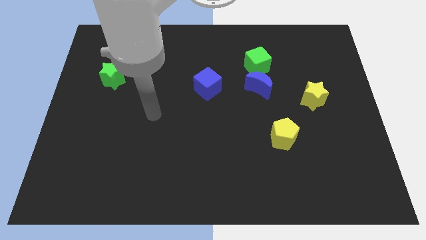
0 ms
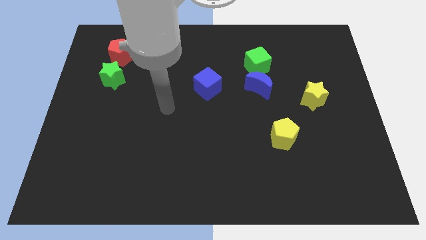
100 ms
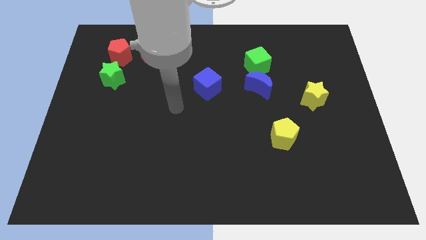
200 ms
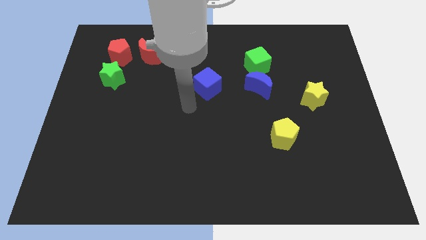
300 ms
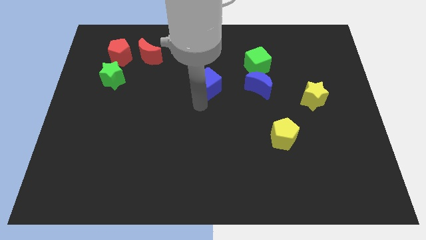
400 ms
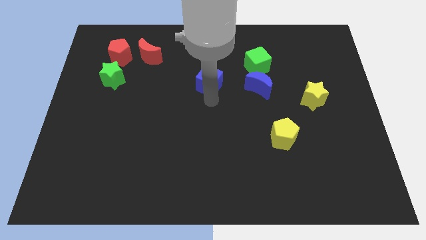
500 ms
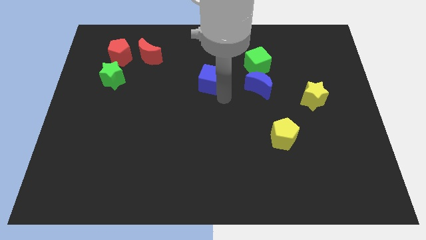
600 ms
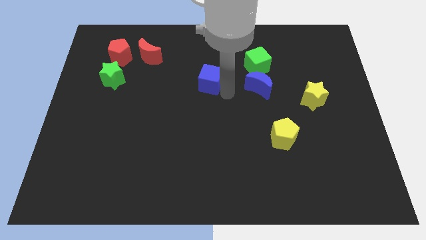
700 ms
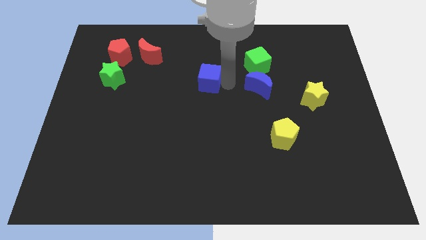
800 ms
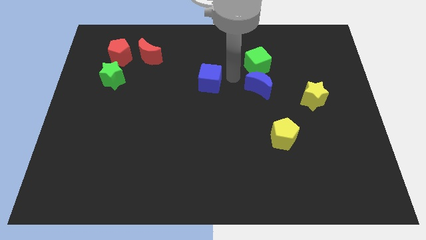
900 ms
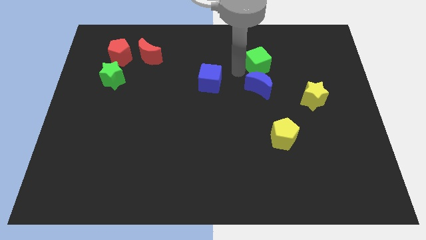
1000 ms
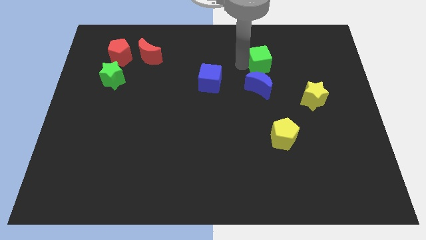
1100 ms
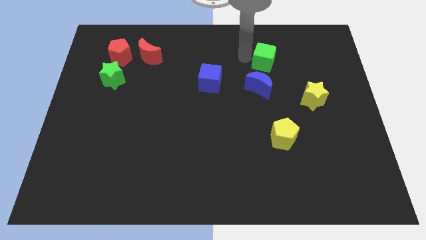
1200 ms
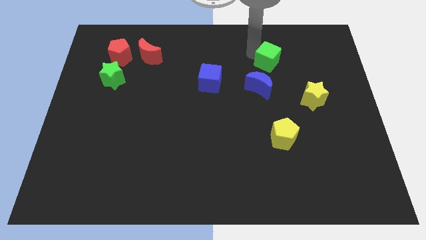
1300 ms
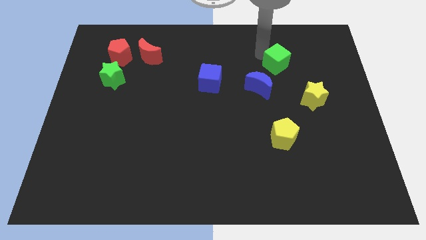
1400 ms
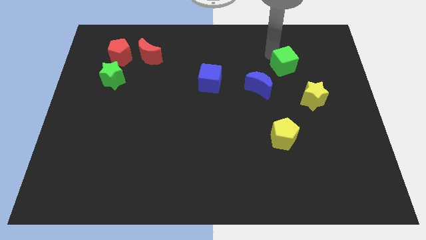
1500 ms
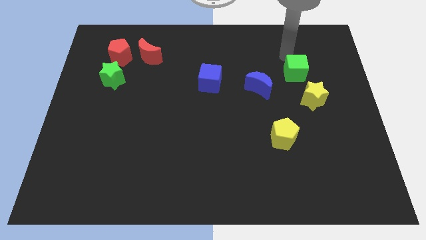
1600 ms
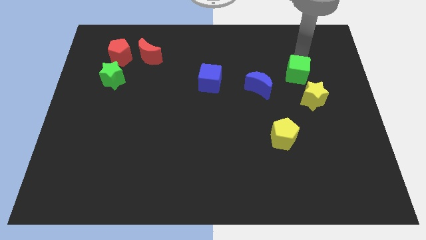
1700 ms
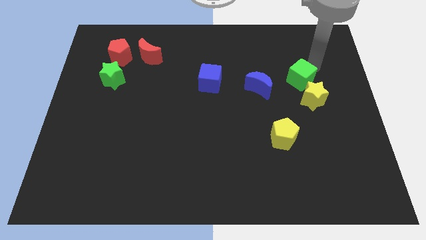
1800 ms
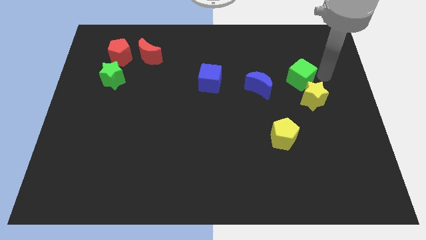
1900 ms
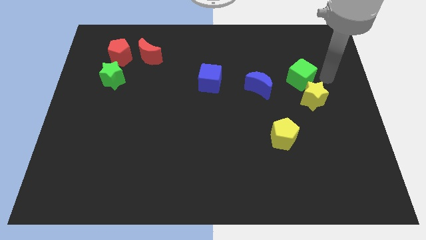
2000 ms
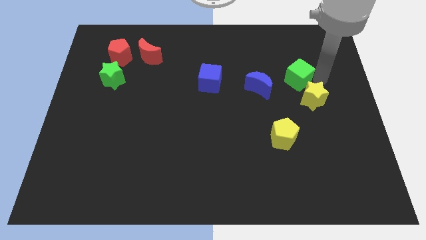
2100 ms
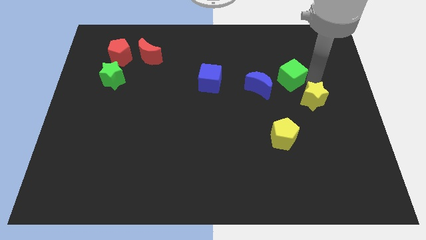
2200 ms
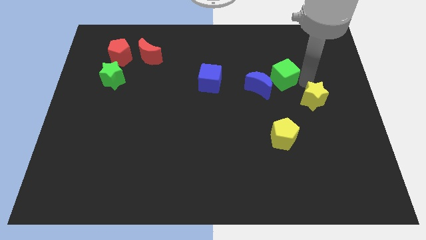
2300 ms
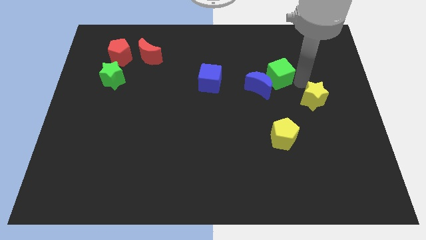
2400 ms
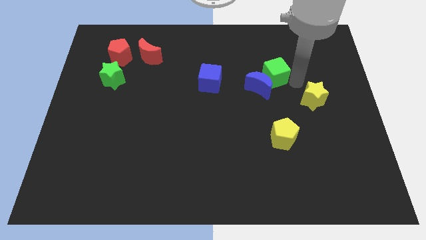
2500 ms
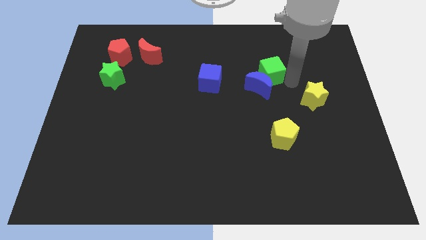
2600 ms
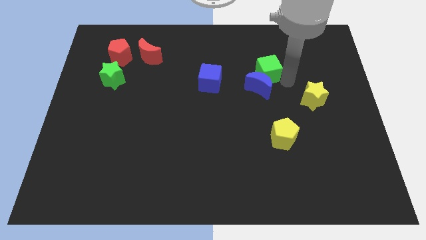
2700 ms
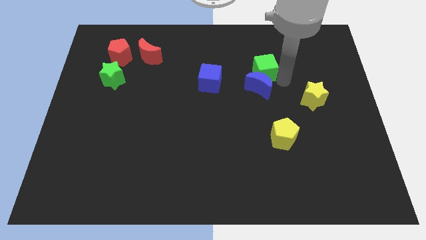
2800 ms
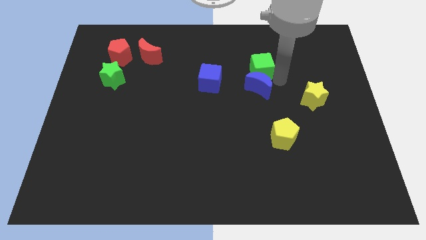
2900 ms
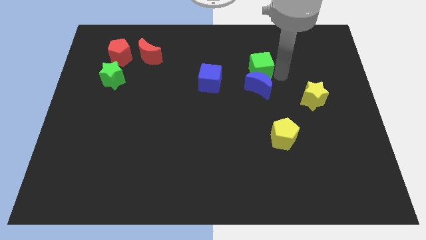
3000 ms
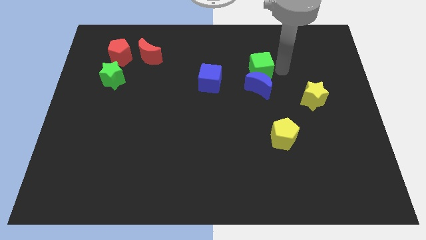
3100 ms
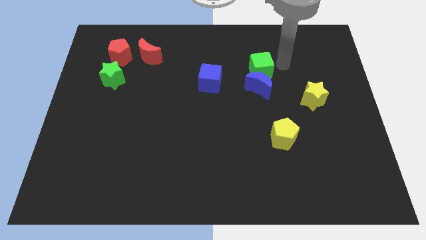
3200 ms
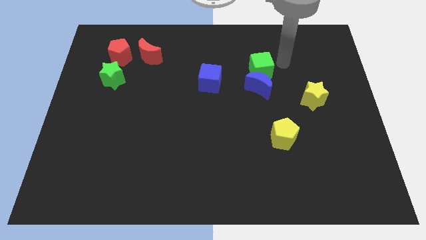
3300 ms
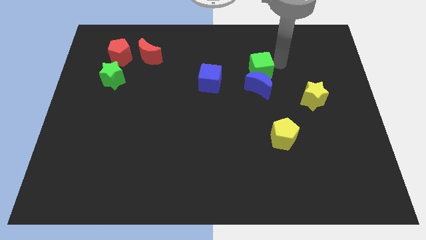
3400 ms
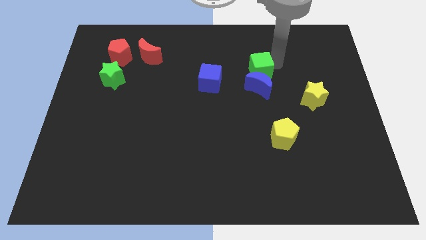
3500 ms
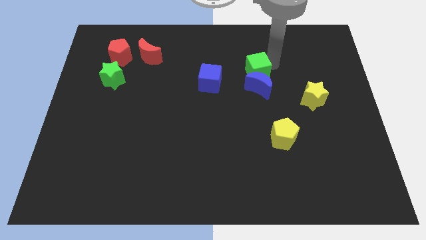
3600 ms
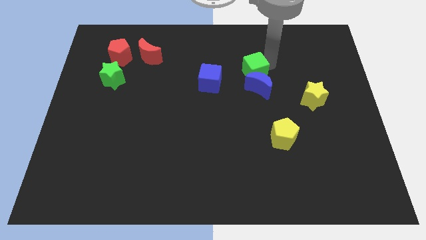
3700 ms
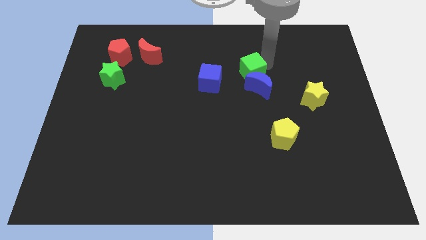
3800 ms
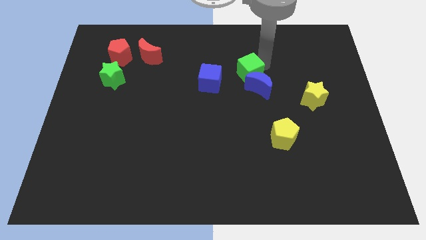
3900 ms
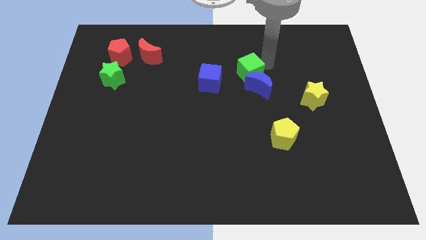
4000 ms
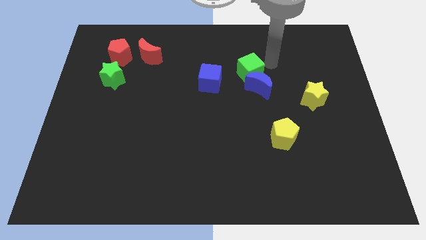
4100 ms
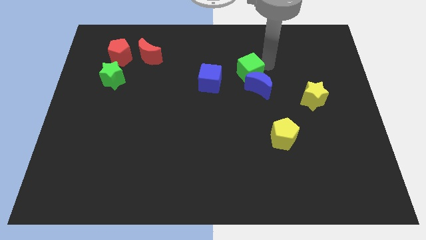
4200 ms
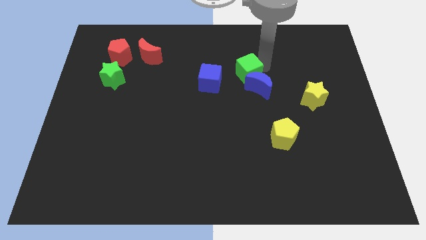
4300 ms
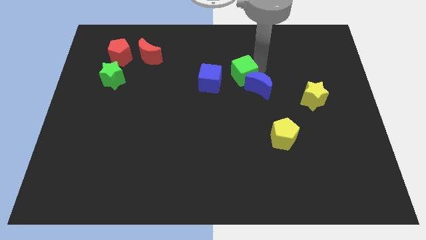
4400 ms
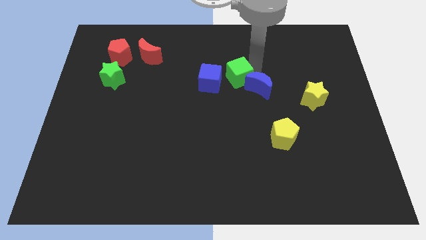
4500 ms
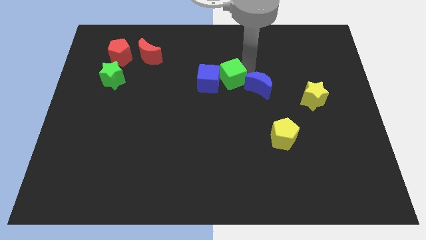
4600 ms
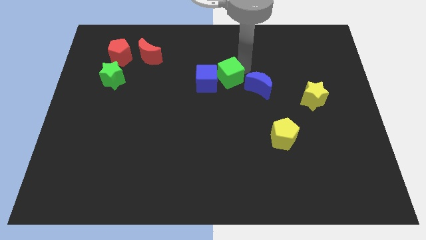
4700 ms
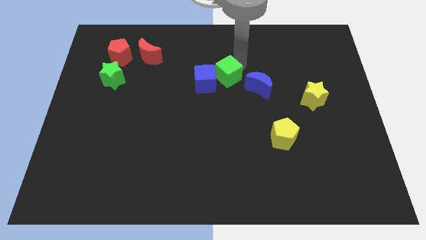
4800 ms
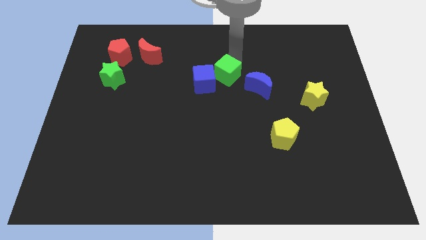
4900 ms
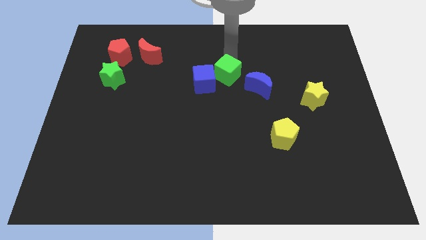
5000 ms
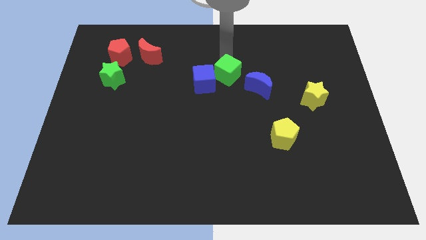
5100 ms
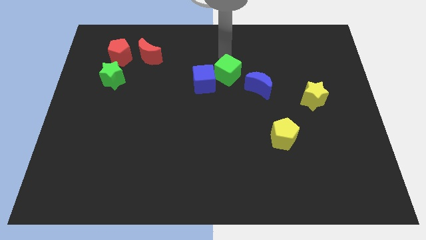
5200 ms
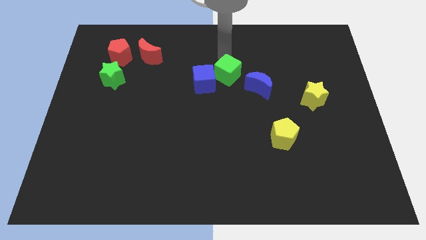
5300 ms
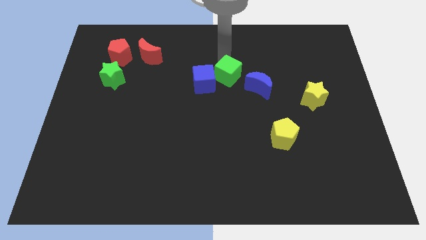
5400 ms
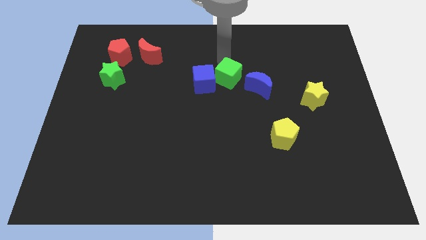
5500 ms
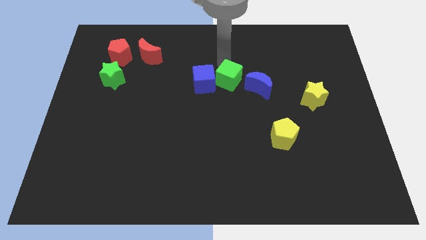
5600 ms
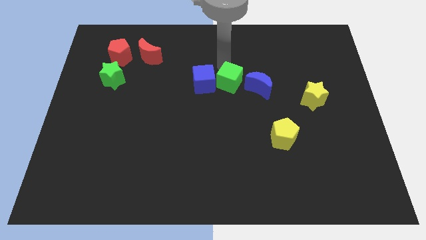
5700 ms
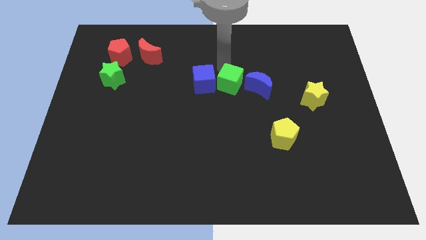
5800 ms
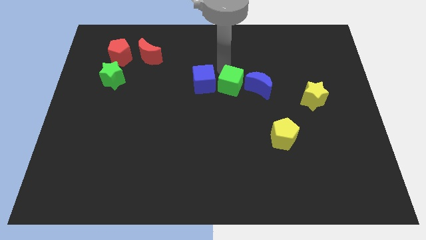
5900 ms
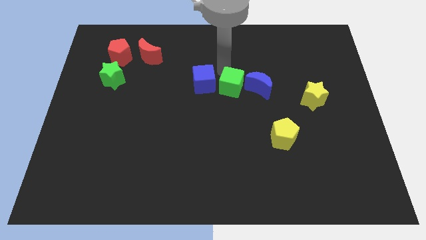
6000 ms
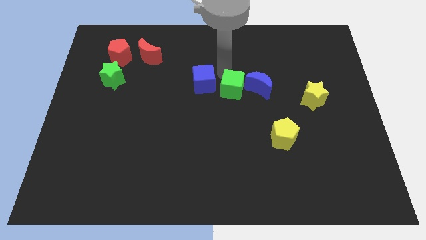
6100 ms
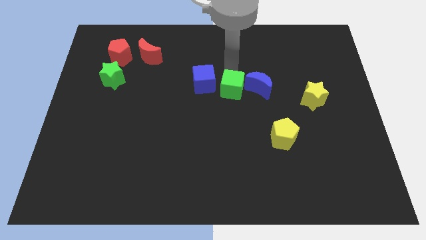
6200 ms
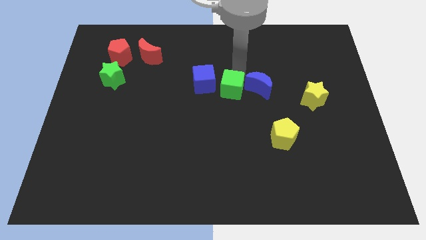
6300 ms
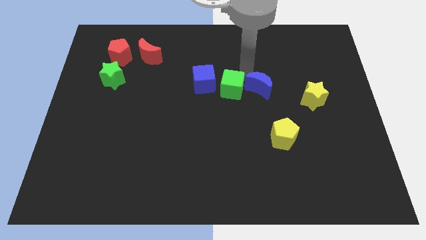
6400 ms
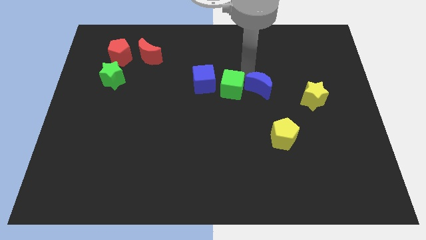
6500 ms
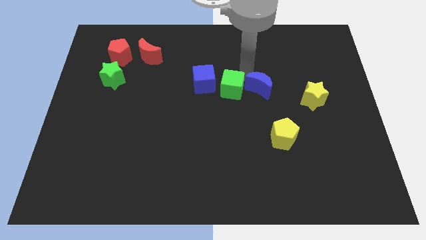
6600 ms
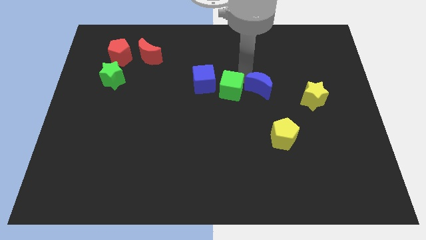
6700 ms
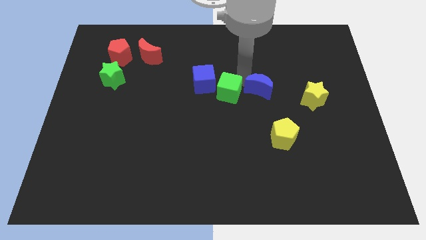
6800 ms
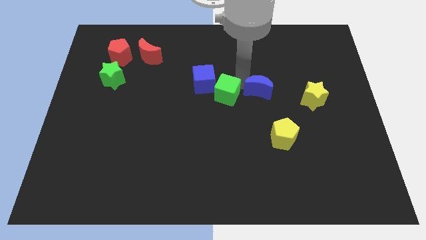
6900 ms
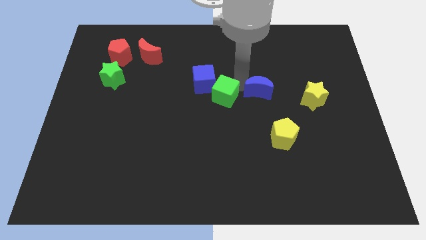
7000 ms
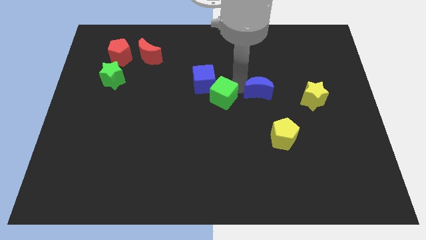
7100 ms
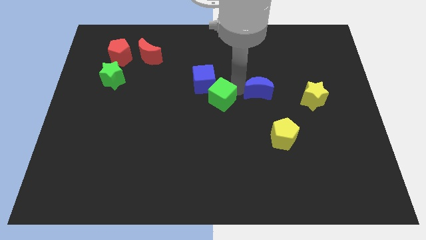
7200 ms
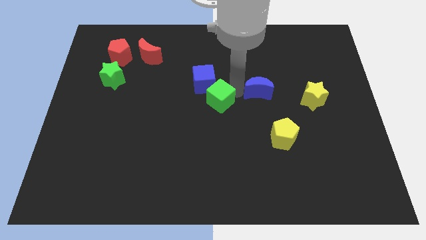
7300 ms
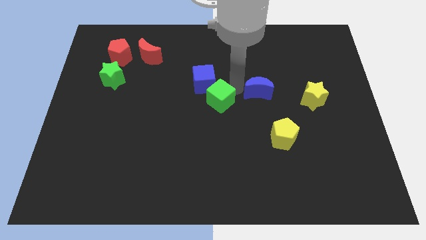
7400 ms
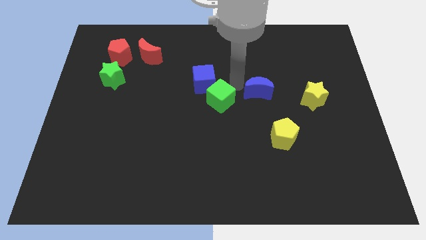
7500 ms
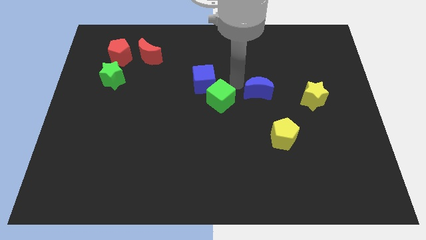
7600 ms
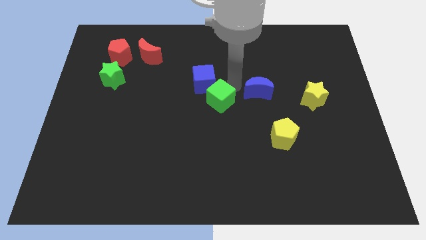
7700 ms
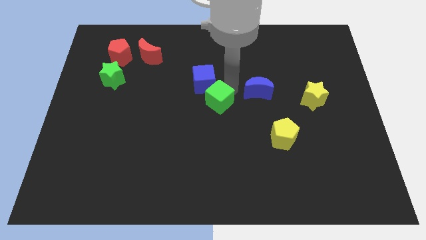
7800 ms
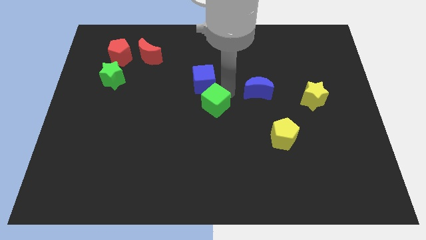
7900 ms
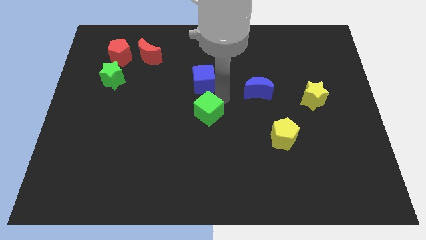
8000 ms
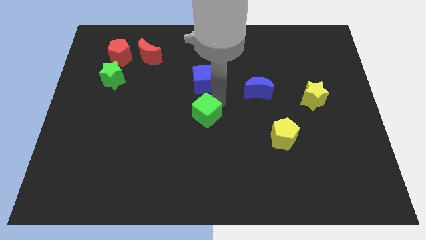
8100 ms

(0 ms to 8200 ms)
push the green cube down and then left

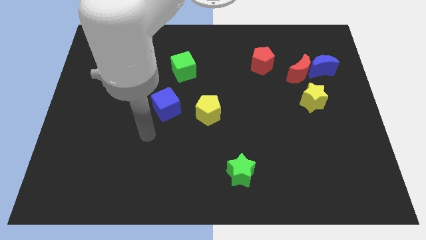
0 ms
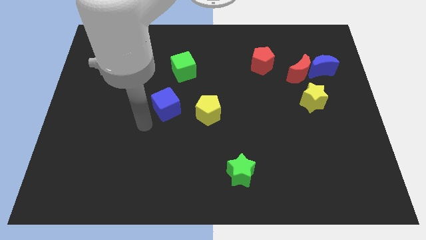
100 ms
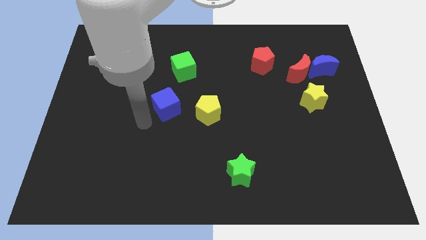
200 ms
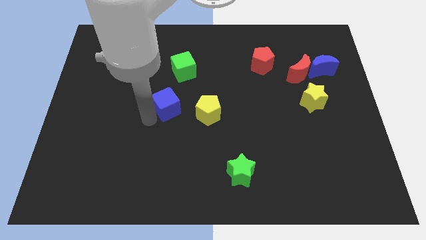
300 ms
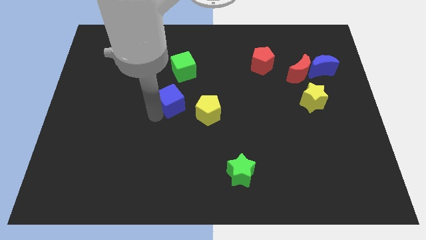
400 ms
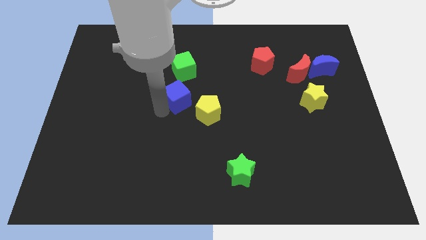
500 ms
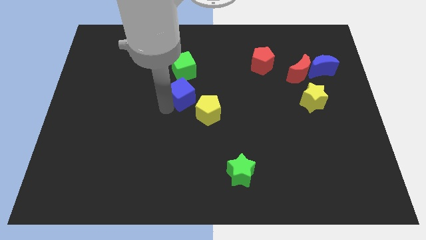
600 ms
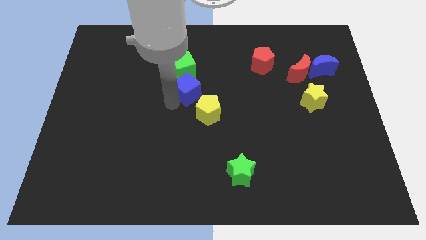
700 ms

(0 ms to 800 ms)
slightly move the blue cube diagonally upwards and right
